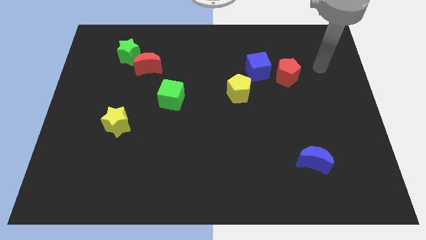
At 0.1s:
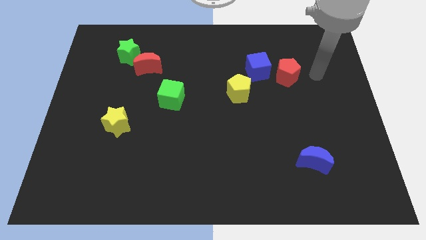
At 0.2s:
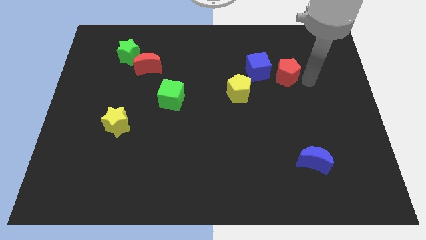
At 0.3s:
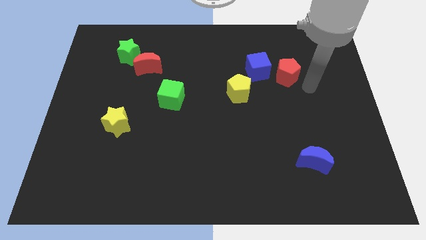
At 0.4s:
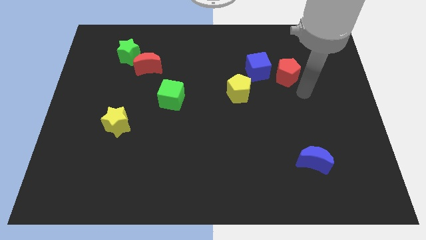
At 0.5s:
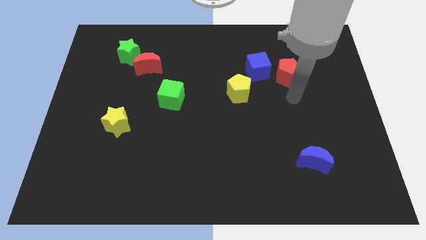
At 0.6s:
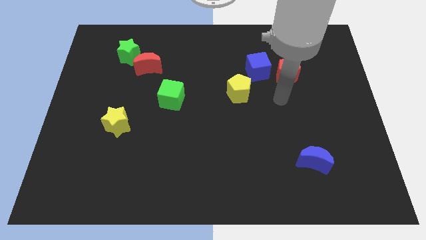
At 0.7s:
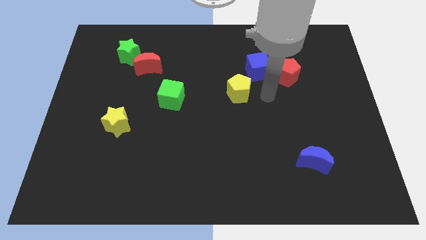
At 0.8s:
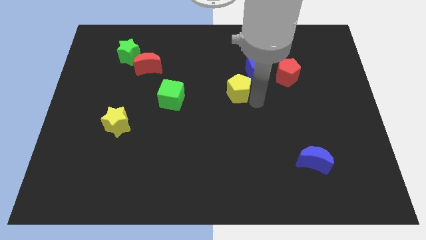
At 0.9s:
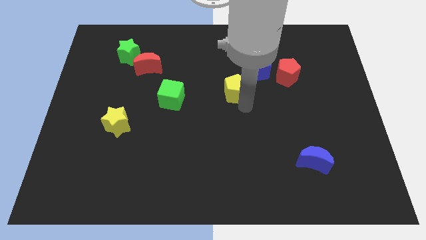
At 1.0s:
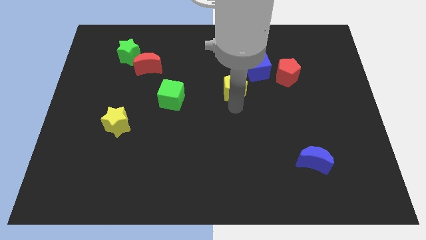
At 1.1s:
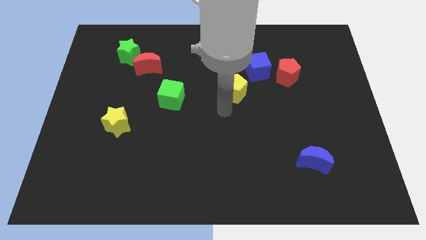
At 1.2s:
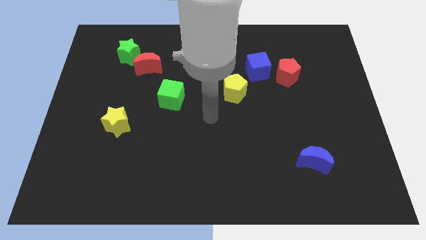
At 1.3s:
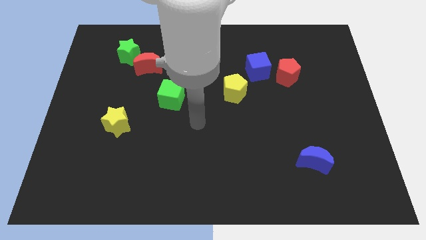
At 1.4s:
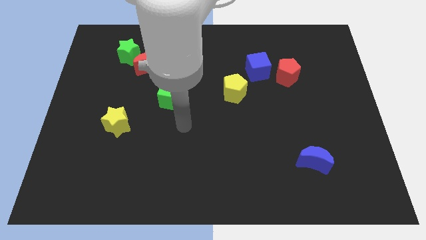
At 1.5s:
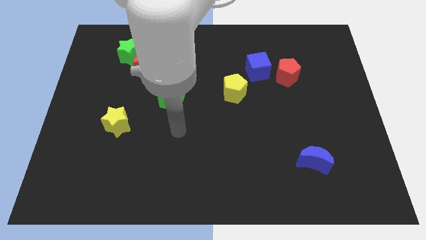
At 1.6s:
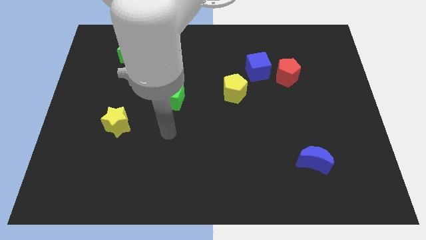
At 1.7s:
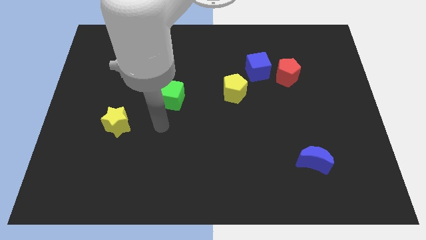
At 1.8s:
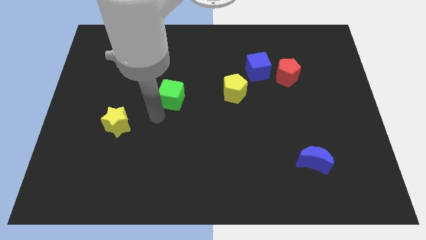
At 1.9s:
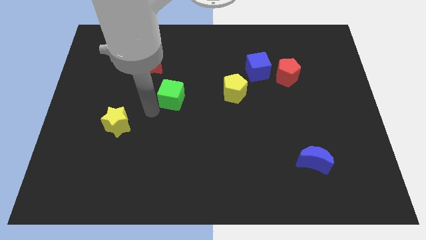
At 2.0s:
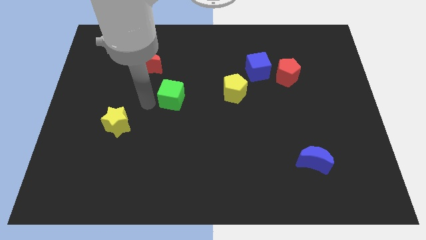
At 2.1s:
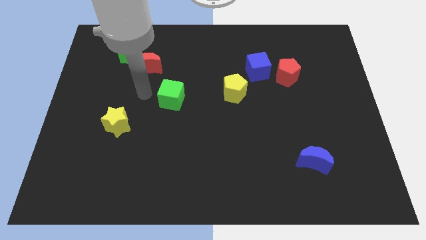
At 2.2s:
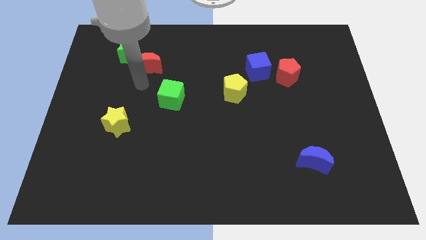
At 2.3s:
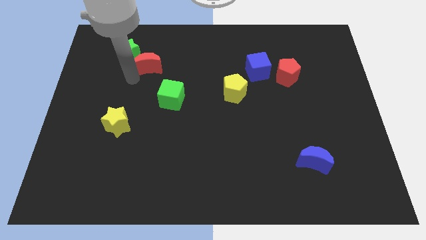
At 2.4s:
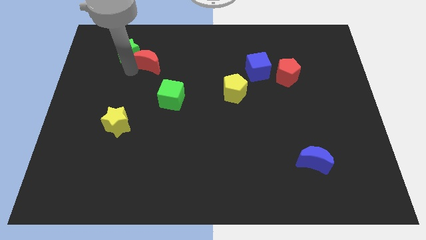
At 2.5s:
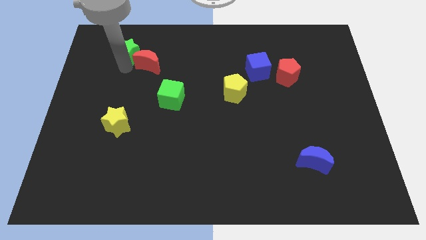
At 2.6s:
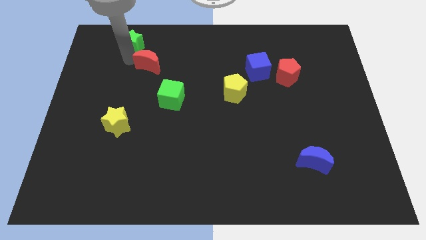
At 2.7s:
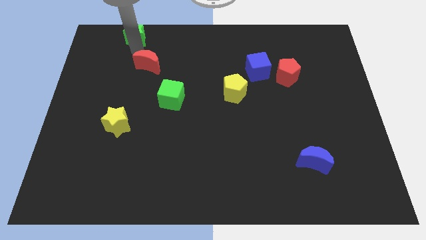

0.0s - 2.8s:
separate the red moon from the green star

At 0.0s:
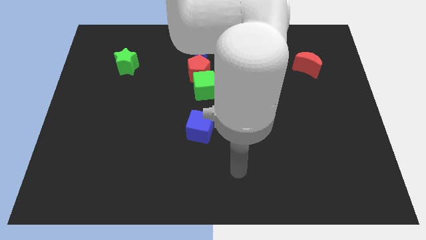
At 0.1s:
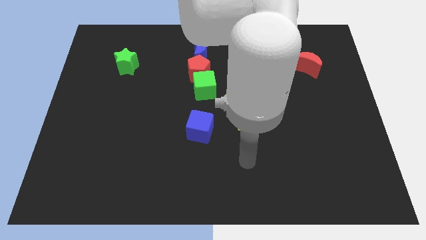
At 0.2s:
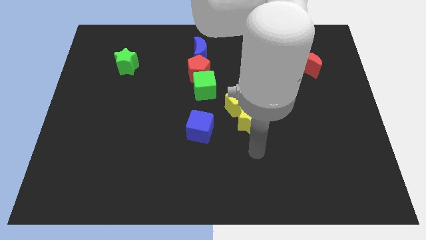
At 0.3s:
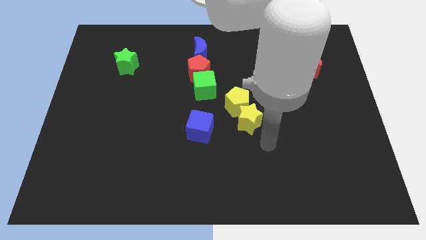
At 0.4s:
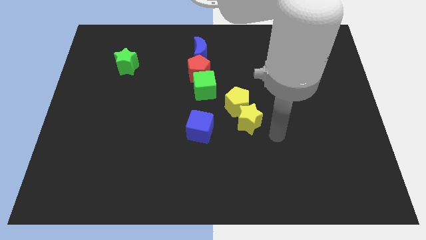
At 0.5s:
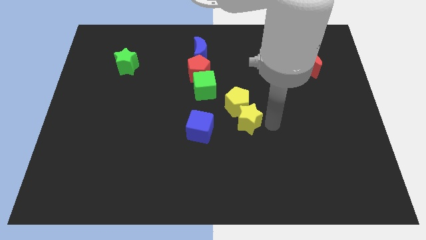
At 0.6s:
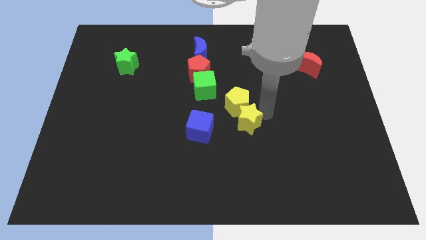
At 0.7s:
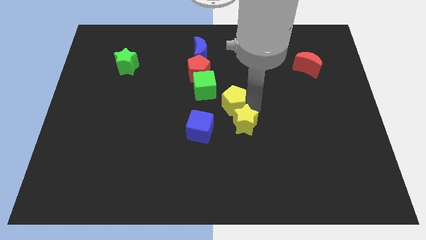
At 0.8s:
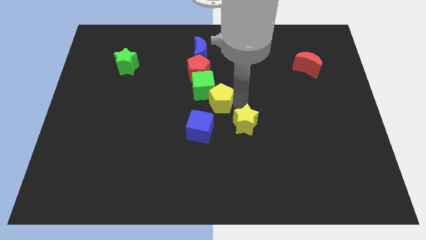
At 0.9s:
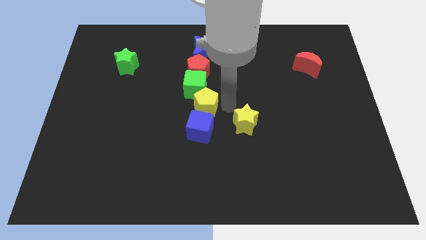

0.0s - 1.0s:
separate the yellow star from the yellow pentagon

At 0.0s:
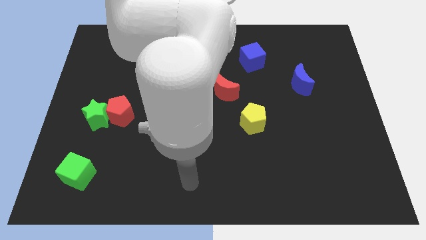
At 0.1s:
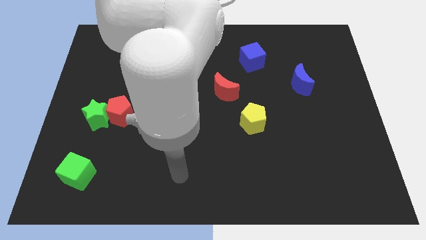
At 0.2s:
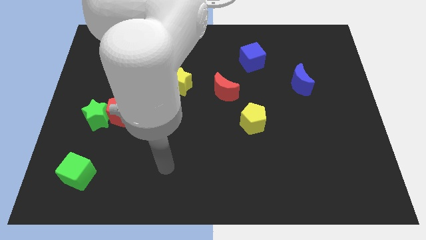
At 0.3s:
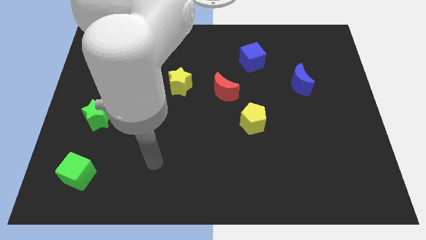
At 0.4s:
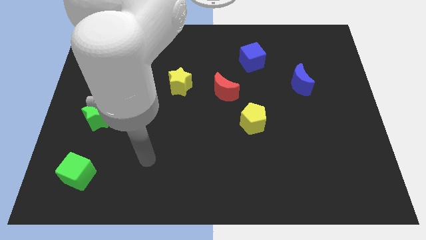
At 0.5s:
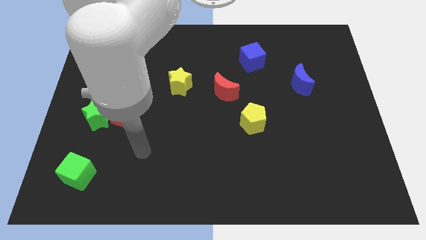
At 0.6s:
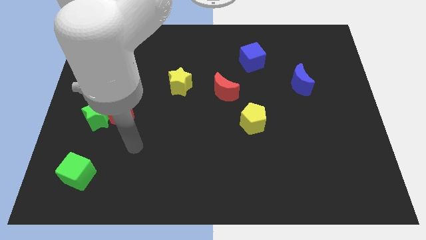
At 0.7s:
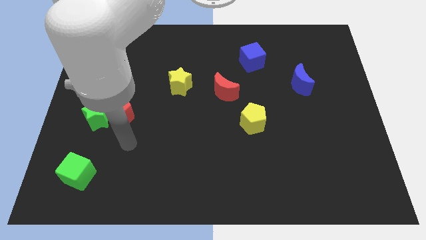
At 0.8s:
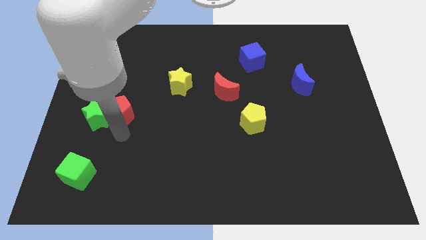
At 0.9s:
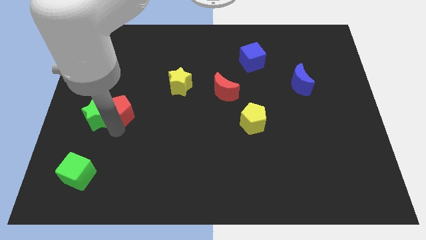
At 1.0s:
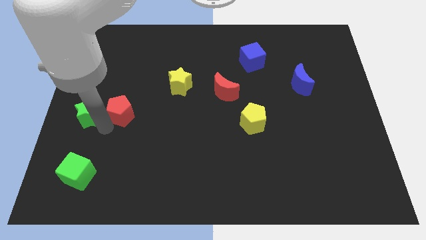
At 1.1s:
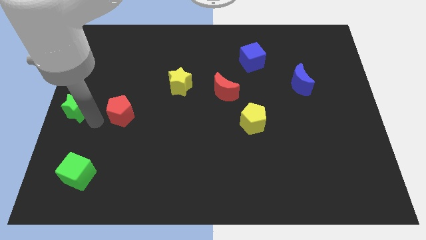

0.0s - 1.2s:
pull the red pentagon apart from the green star

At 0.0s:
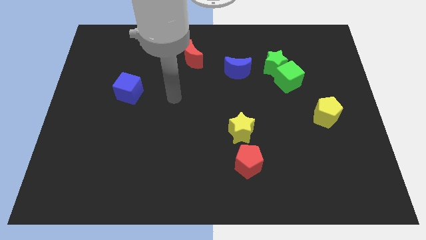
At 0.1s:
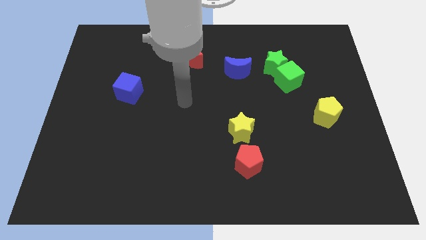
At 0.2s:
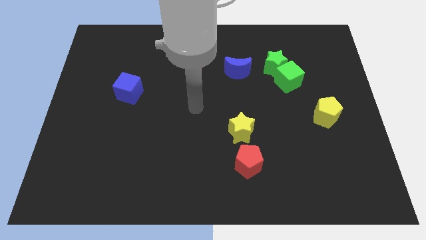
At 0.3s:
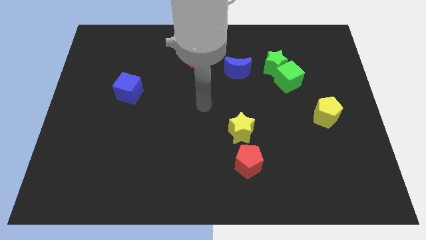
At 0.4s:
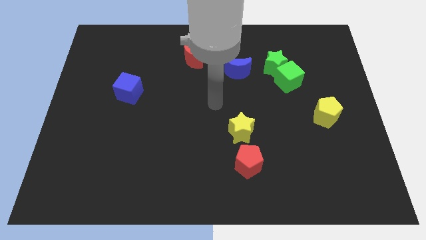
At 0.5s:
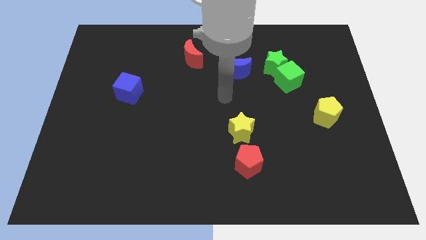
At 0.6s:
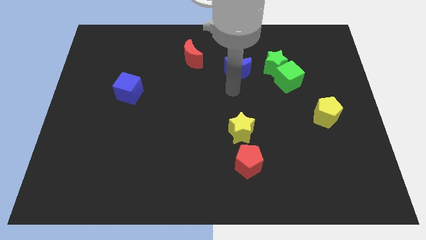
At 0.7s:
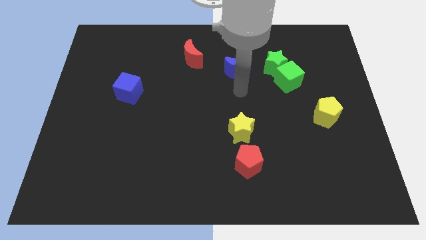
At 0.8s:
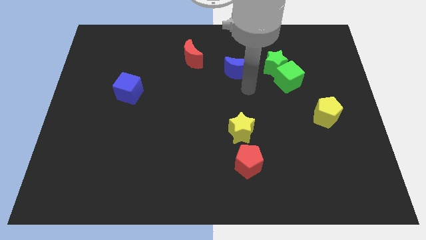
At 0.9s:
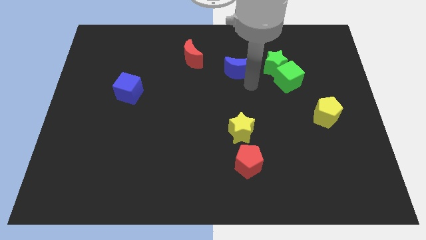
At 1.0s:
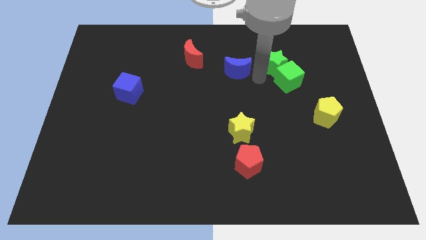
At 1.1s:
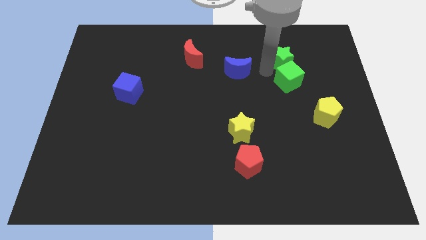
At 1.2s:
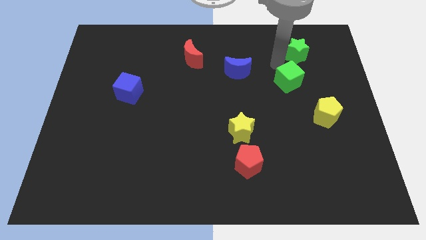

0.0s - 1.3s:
pull the green cube apart from the green star

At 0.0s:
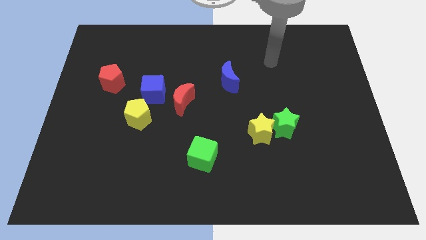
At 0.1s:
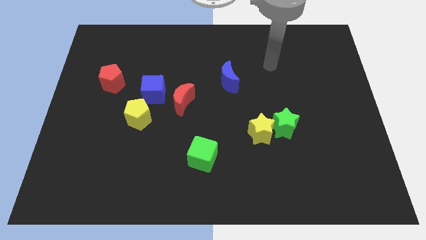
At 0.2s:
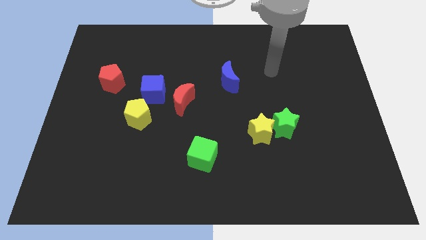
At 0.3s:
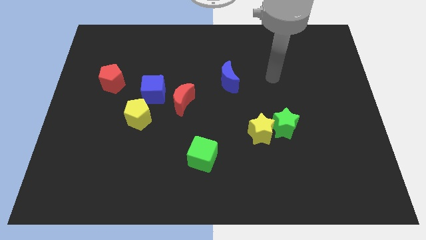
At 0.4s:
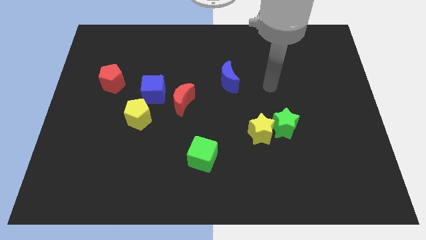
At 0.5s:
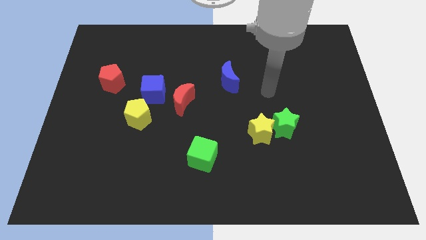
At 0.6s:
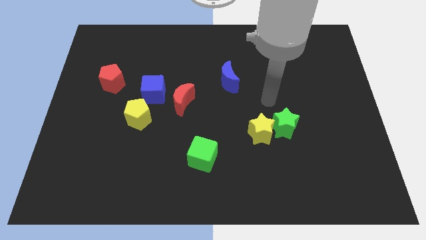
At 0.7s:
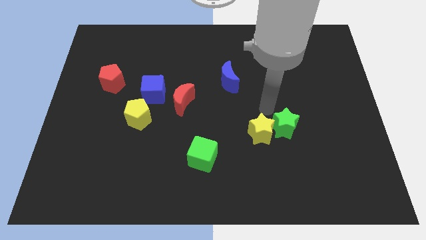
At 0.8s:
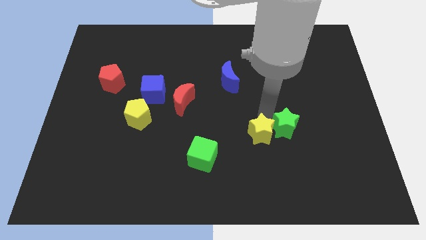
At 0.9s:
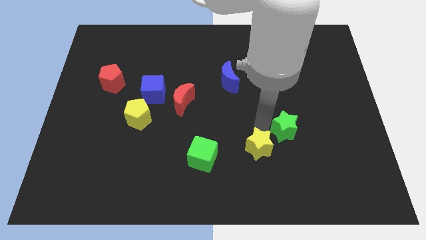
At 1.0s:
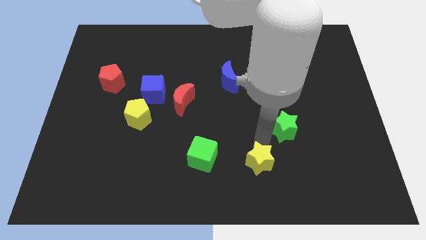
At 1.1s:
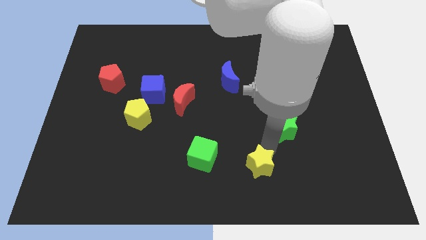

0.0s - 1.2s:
separate the green star from the yellow star

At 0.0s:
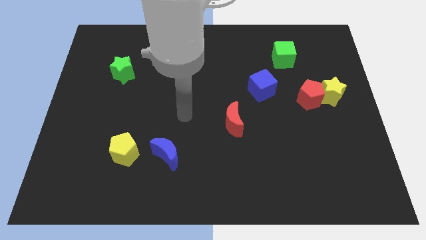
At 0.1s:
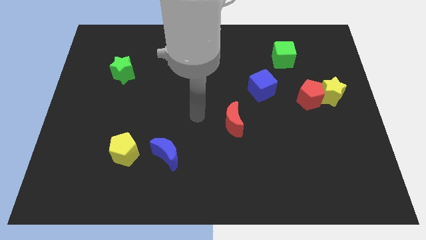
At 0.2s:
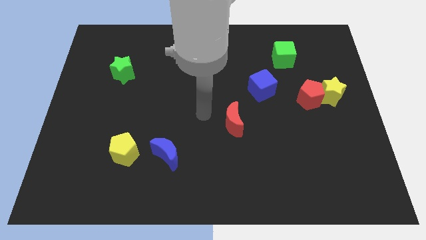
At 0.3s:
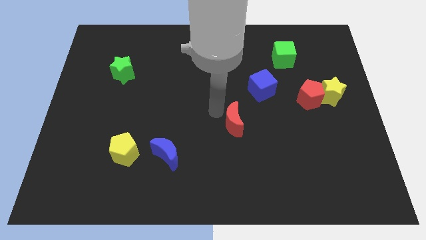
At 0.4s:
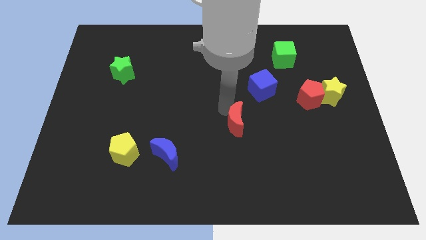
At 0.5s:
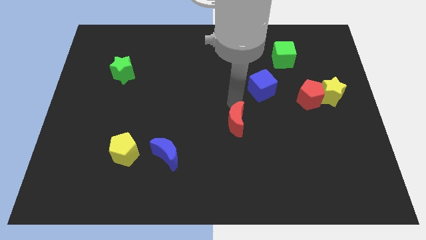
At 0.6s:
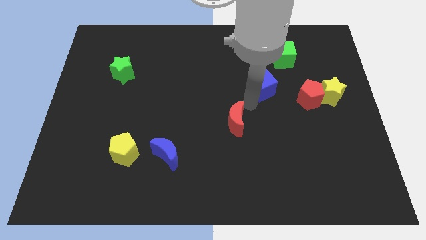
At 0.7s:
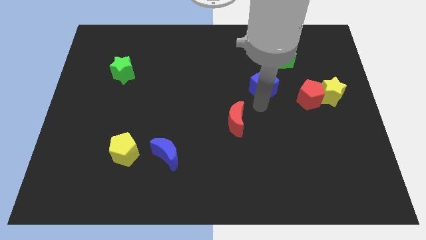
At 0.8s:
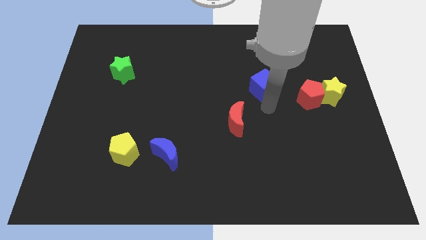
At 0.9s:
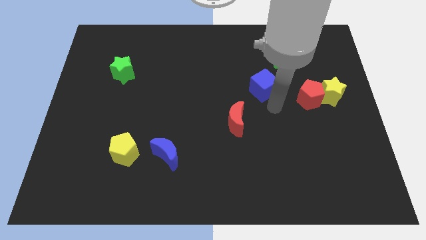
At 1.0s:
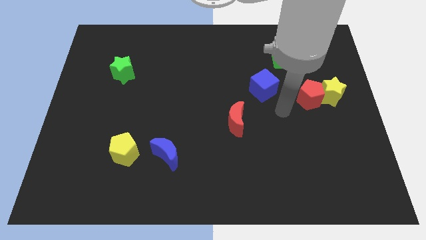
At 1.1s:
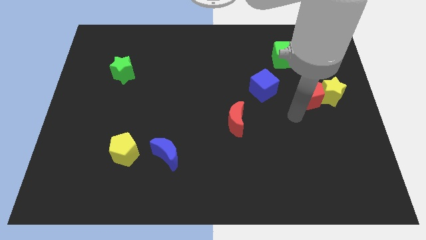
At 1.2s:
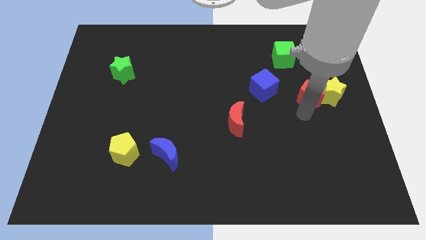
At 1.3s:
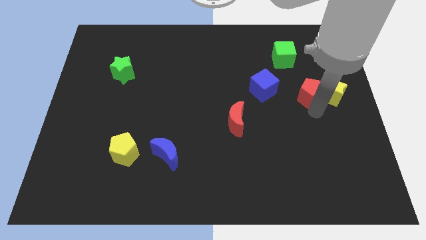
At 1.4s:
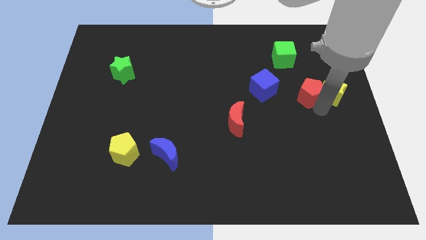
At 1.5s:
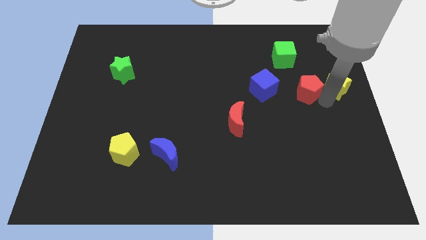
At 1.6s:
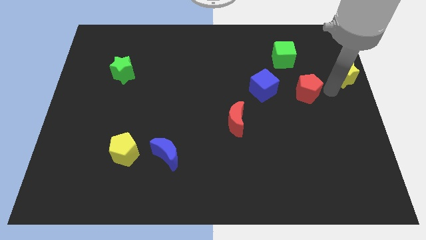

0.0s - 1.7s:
move the red pentagon away from the yellow star

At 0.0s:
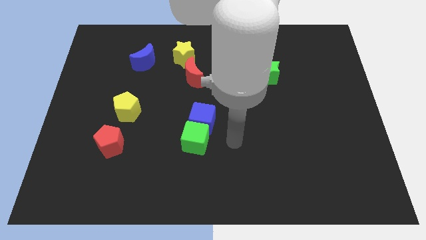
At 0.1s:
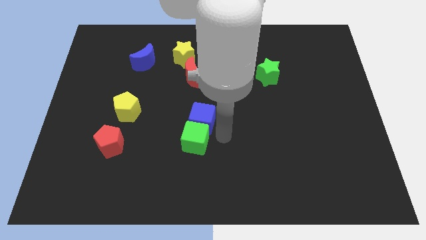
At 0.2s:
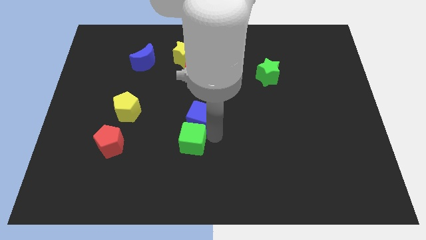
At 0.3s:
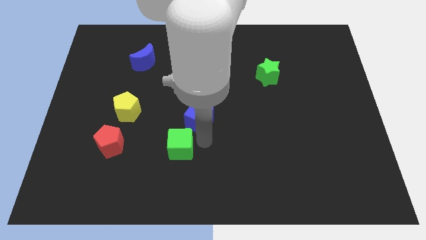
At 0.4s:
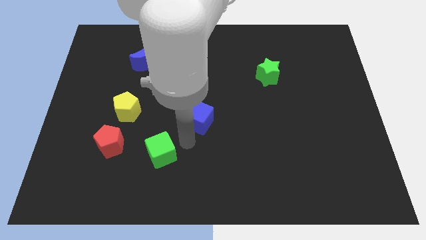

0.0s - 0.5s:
move the blue cube away from the green cube
